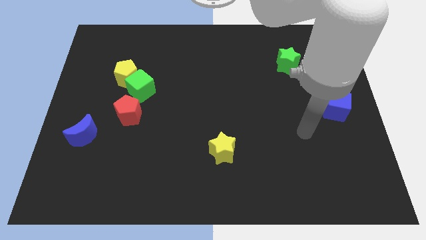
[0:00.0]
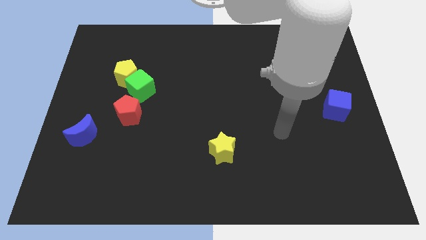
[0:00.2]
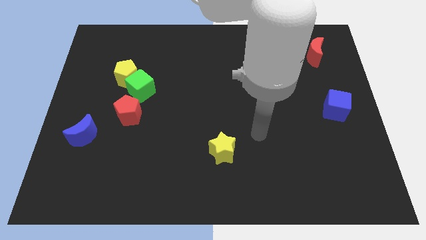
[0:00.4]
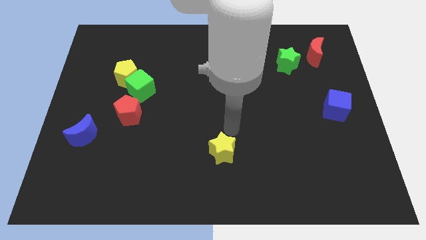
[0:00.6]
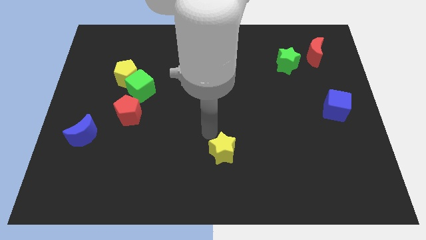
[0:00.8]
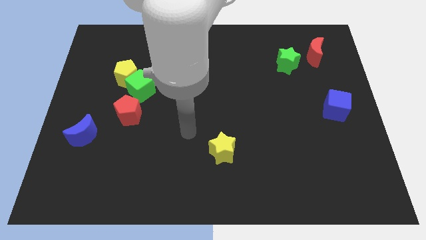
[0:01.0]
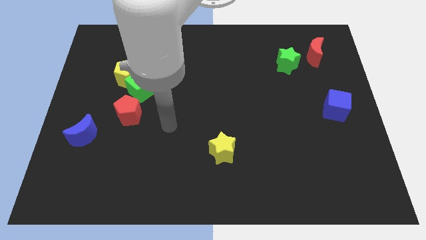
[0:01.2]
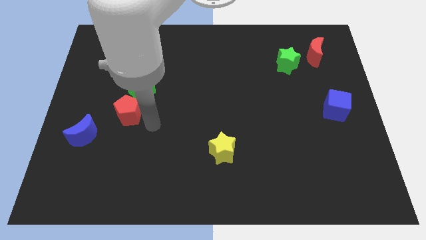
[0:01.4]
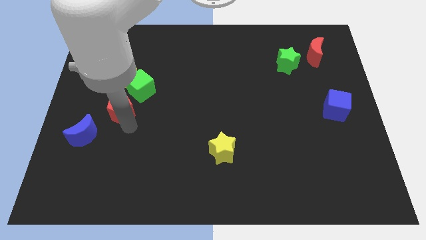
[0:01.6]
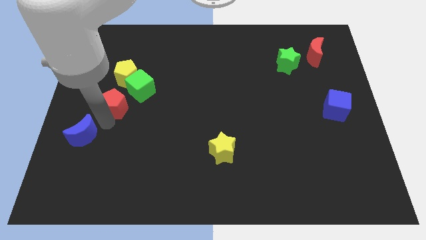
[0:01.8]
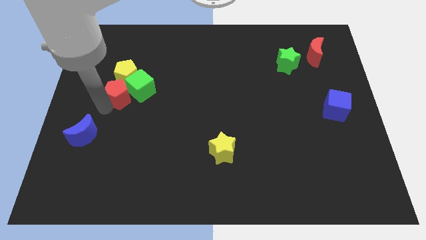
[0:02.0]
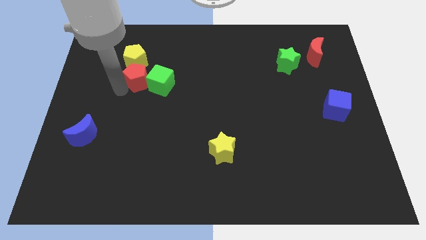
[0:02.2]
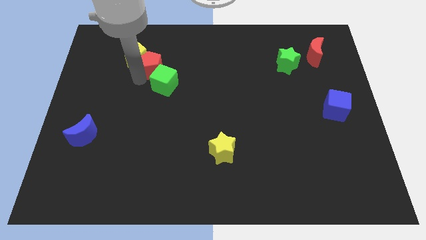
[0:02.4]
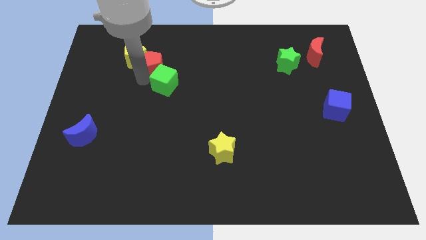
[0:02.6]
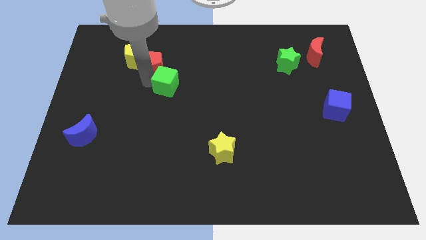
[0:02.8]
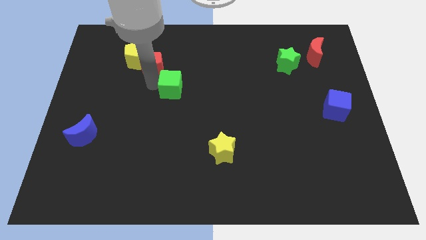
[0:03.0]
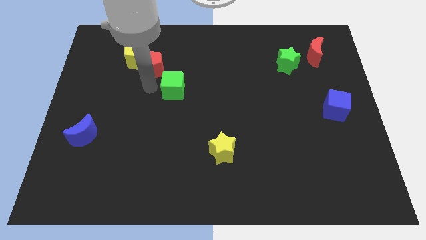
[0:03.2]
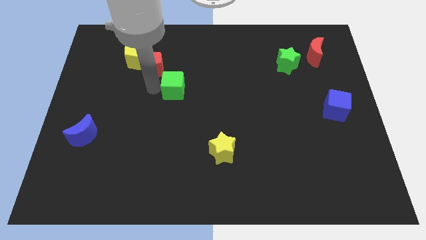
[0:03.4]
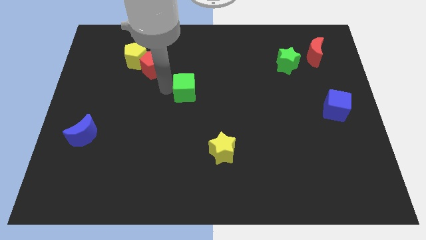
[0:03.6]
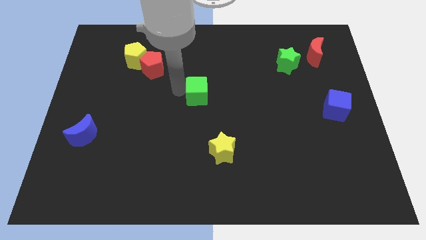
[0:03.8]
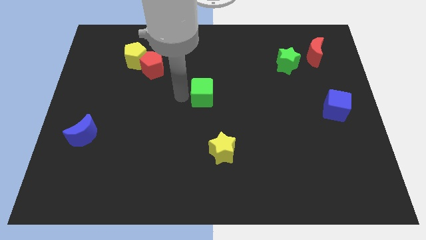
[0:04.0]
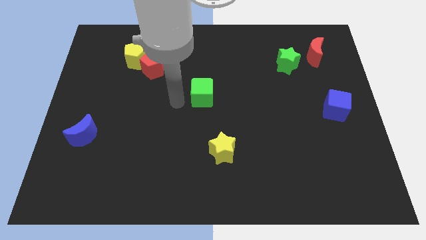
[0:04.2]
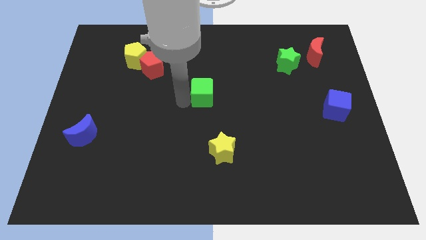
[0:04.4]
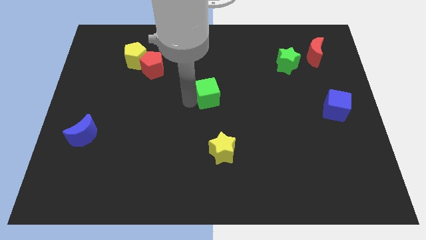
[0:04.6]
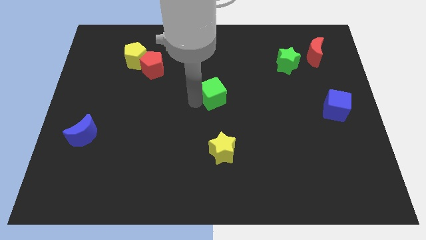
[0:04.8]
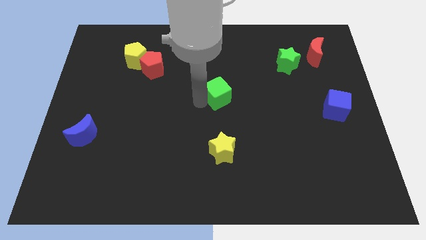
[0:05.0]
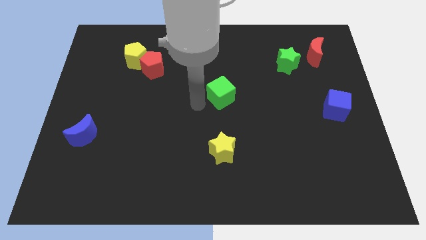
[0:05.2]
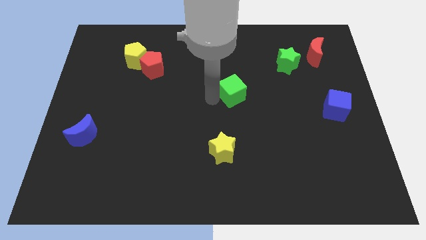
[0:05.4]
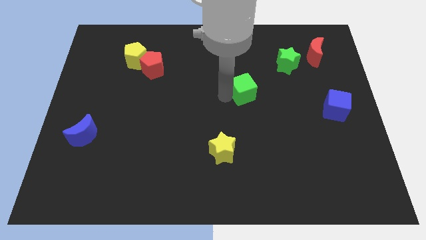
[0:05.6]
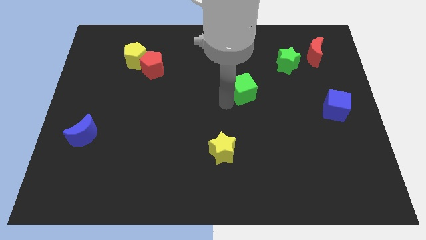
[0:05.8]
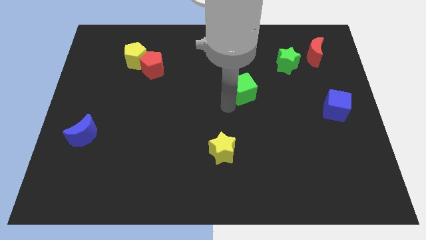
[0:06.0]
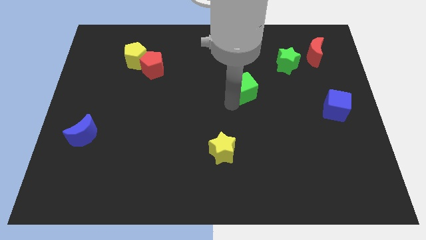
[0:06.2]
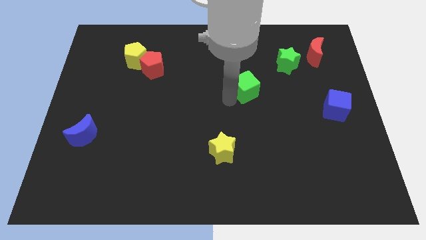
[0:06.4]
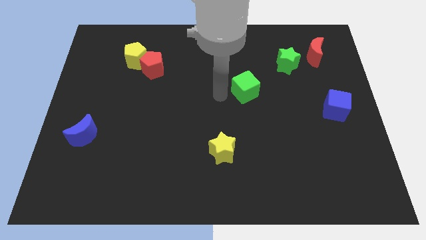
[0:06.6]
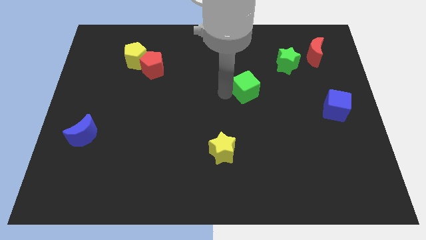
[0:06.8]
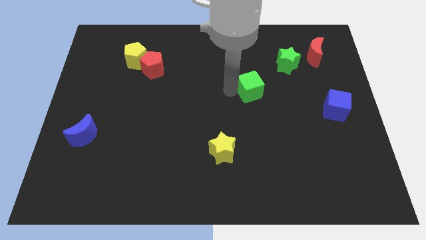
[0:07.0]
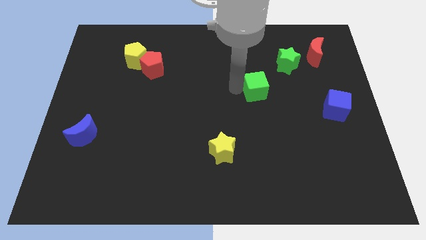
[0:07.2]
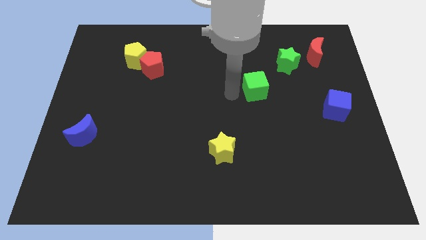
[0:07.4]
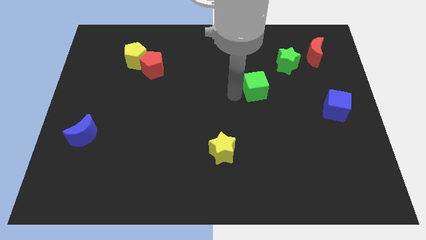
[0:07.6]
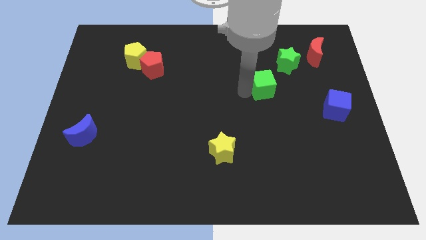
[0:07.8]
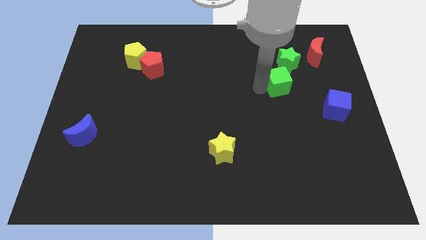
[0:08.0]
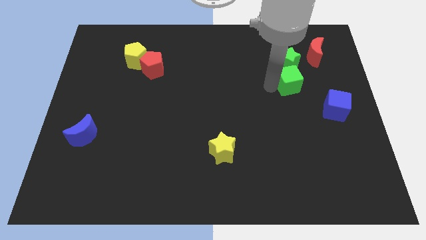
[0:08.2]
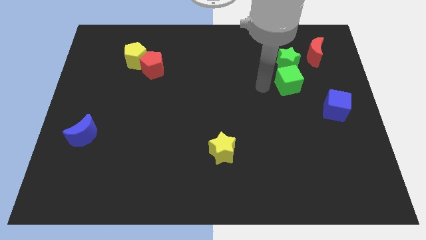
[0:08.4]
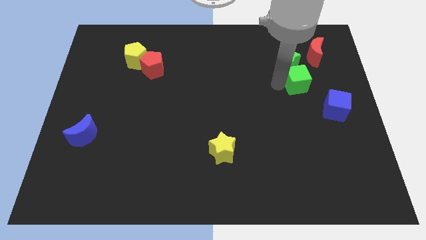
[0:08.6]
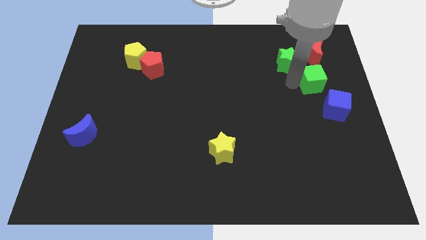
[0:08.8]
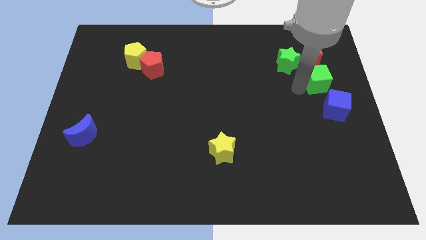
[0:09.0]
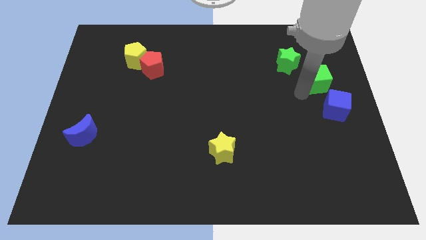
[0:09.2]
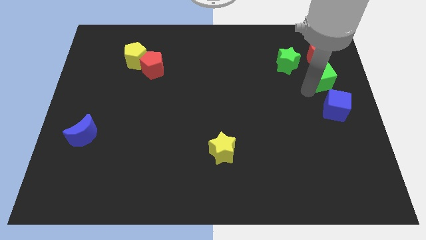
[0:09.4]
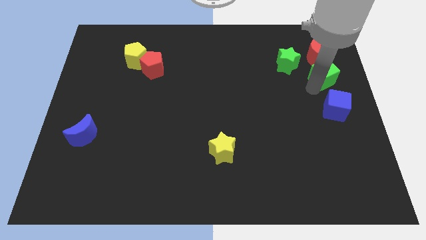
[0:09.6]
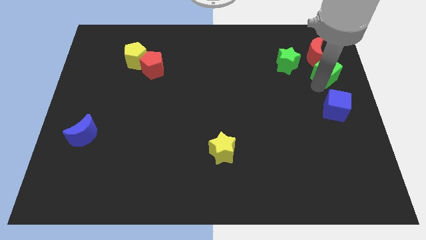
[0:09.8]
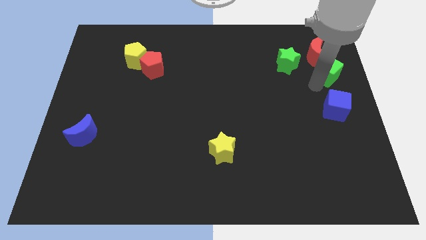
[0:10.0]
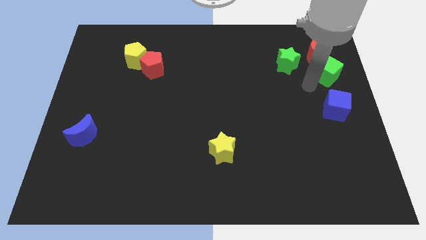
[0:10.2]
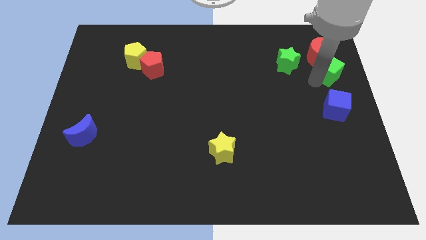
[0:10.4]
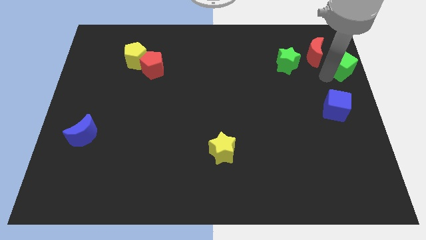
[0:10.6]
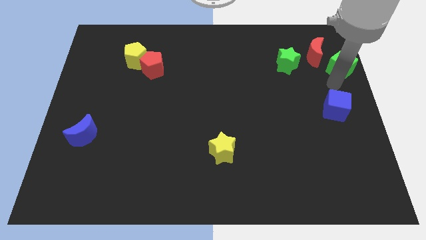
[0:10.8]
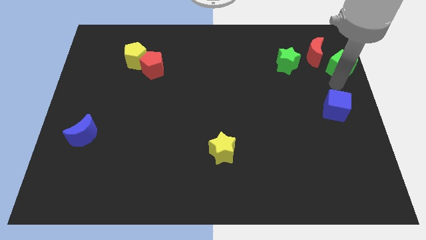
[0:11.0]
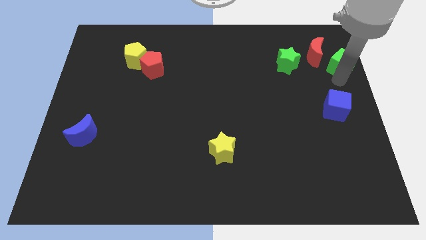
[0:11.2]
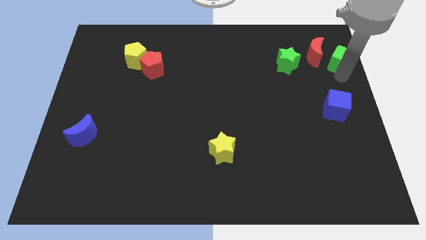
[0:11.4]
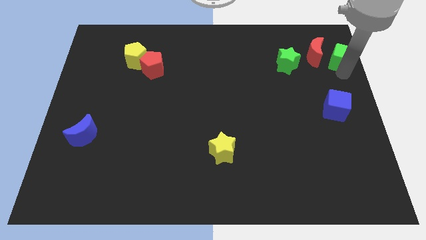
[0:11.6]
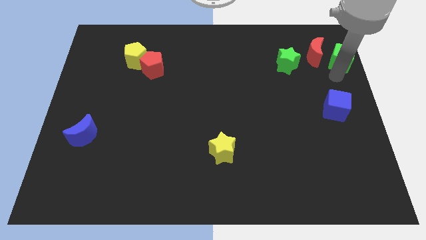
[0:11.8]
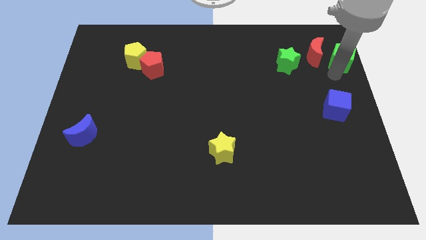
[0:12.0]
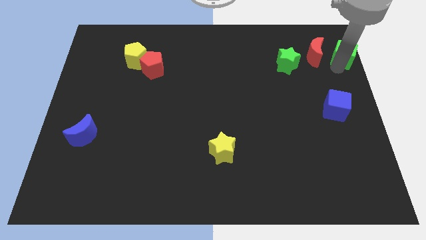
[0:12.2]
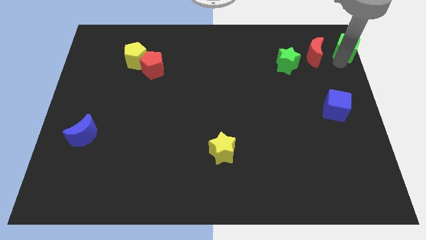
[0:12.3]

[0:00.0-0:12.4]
move the green cube to the upper right corner

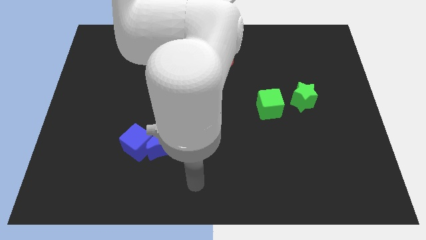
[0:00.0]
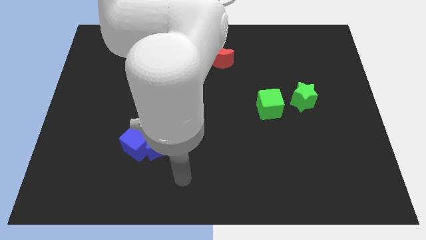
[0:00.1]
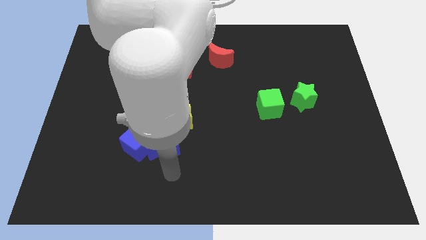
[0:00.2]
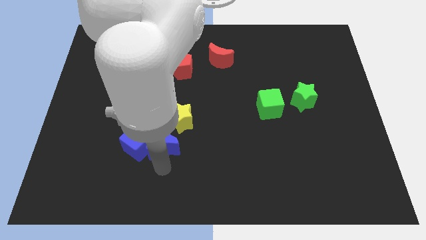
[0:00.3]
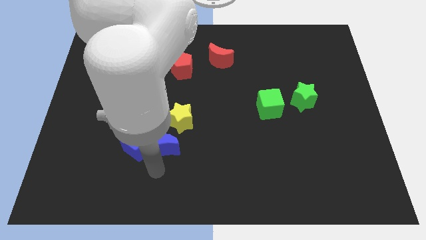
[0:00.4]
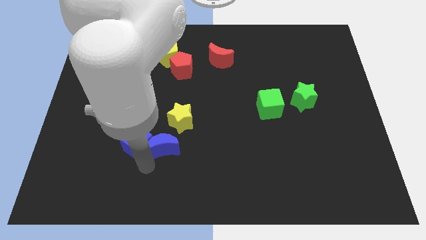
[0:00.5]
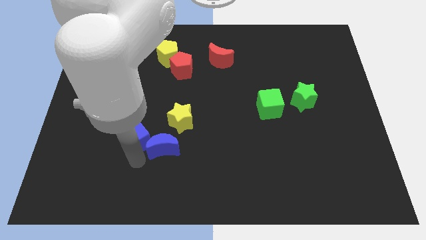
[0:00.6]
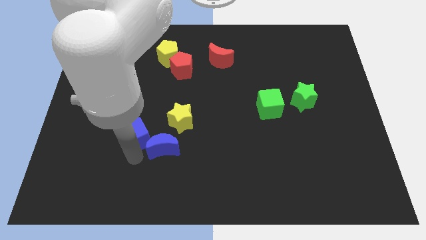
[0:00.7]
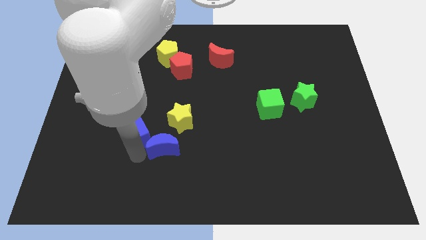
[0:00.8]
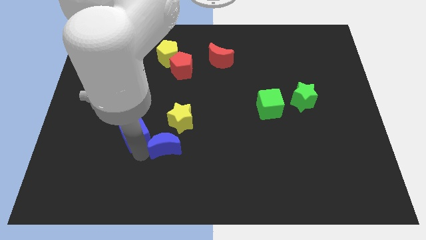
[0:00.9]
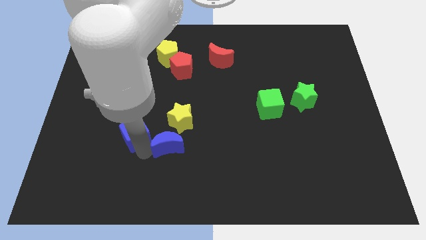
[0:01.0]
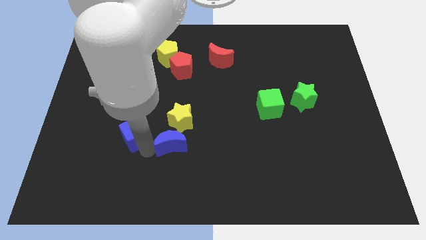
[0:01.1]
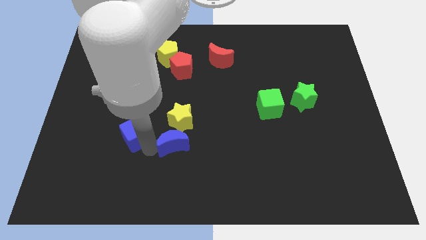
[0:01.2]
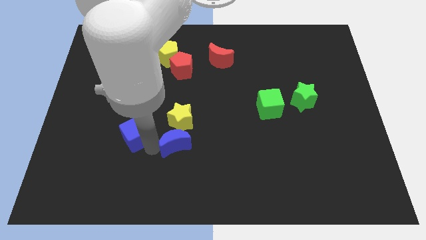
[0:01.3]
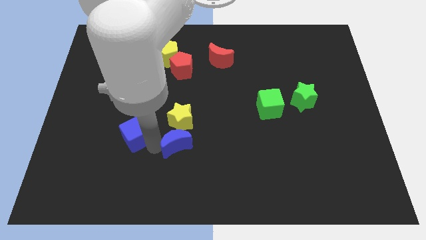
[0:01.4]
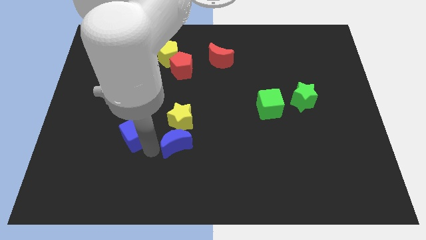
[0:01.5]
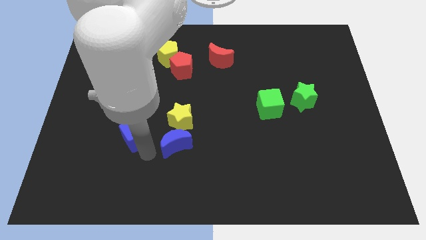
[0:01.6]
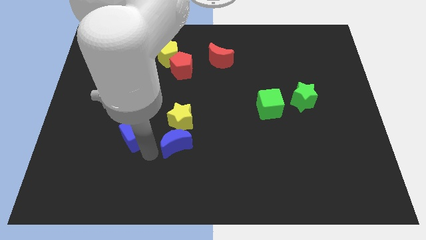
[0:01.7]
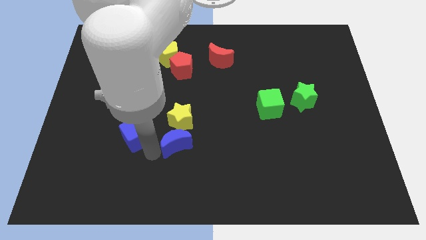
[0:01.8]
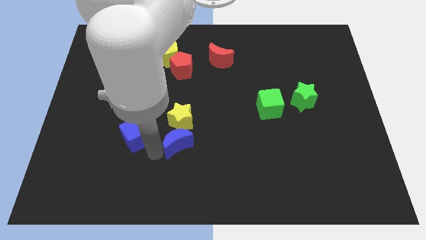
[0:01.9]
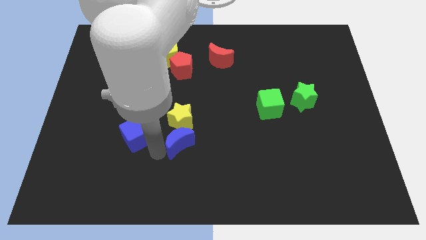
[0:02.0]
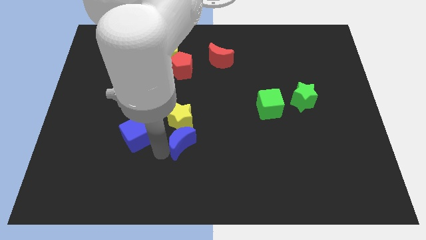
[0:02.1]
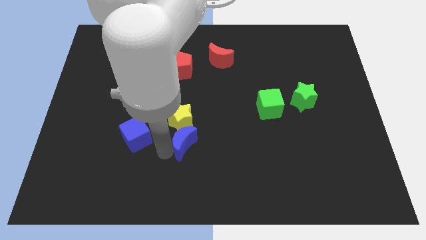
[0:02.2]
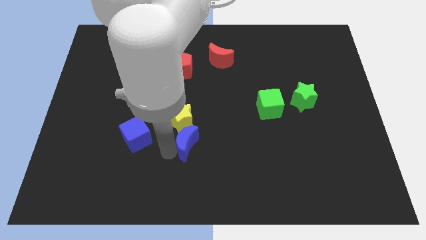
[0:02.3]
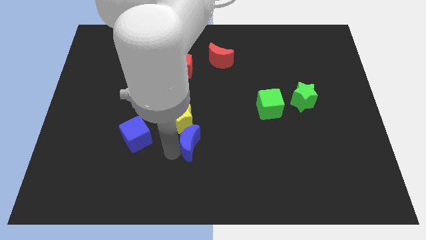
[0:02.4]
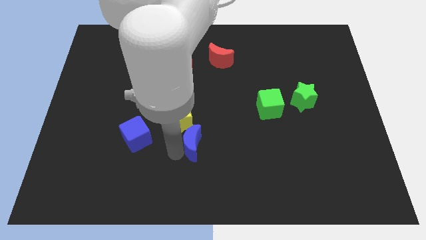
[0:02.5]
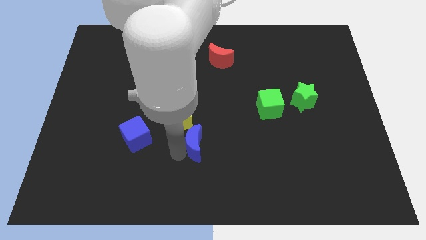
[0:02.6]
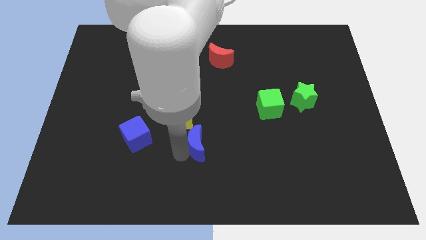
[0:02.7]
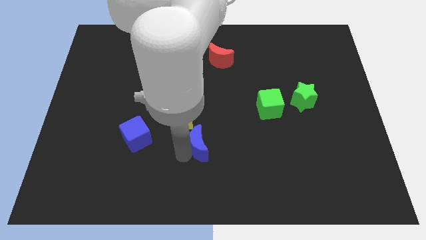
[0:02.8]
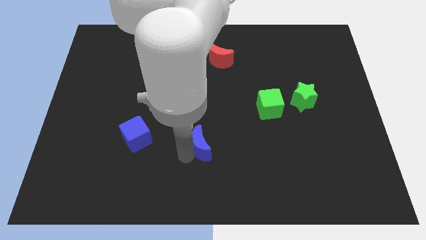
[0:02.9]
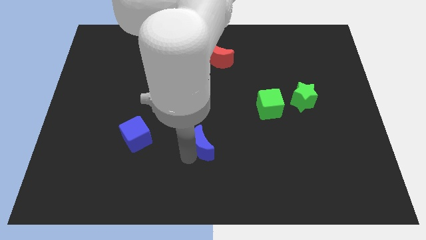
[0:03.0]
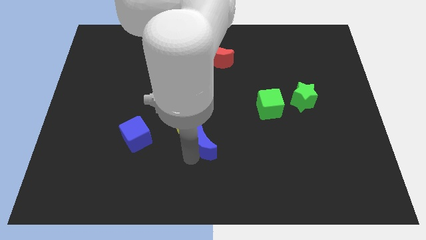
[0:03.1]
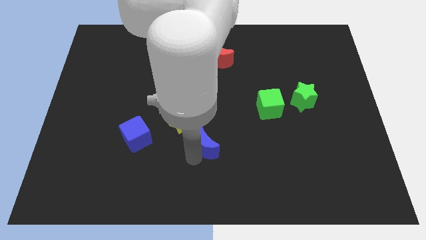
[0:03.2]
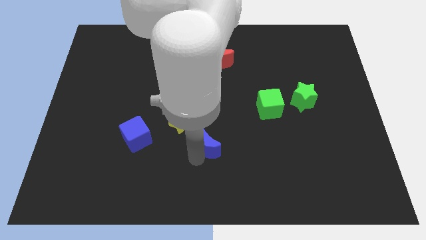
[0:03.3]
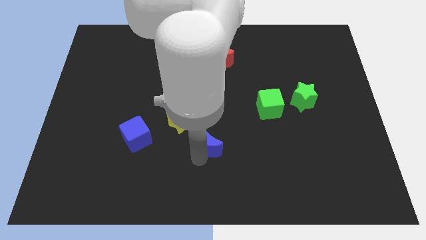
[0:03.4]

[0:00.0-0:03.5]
put the blue moon to the center of the board
